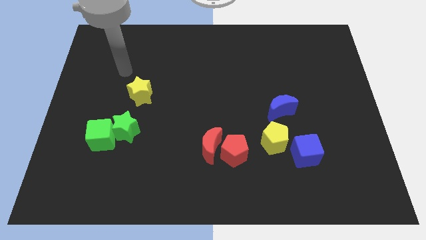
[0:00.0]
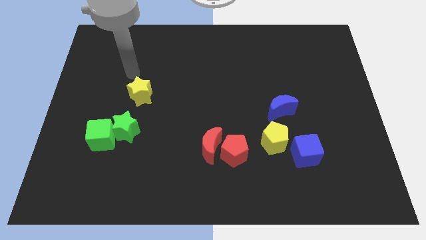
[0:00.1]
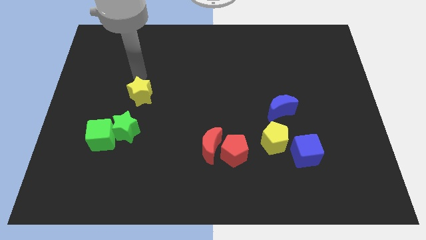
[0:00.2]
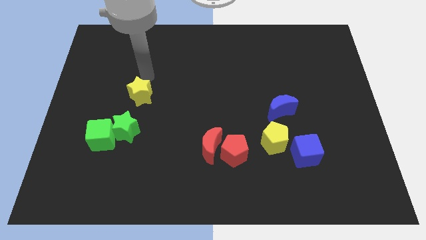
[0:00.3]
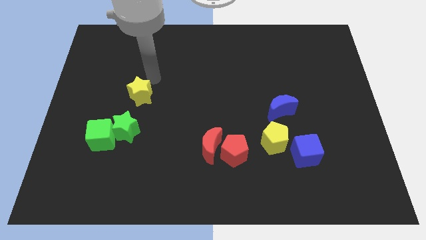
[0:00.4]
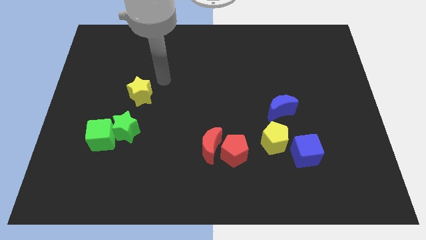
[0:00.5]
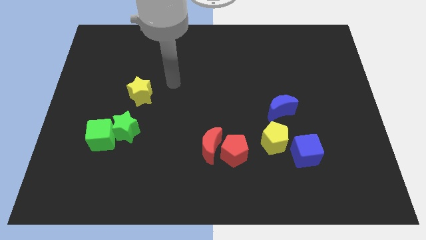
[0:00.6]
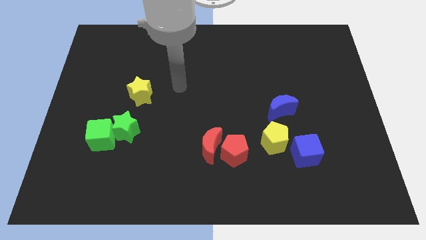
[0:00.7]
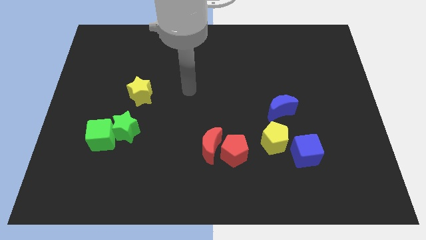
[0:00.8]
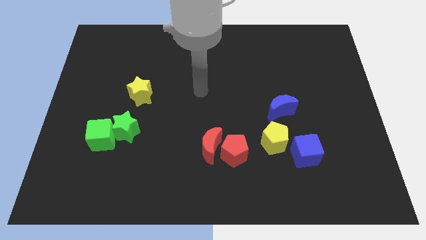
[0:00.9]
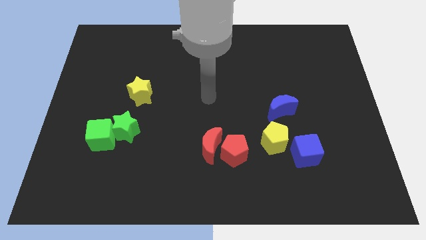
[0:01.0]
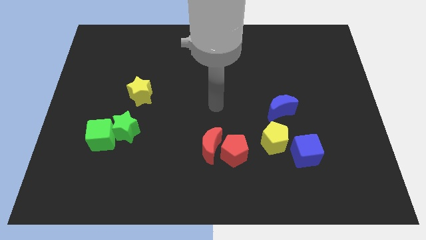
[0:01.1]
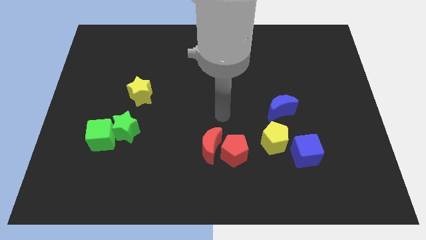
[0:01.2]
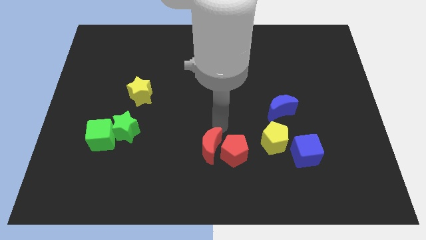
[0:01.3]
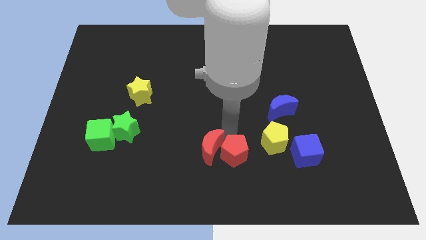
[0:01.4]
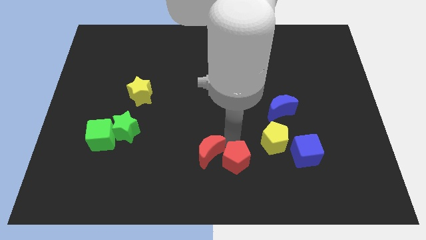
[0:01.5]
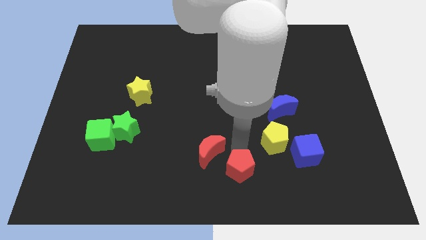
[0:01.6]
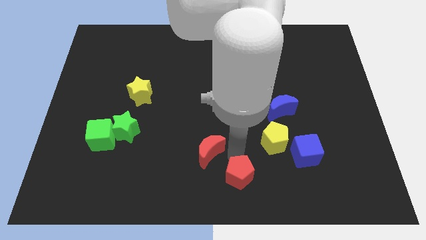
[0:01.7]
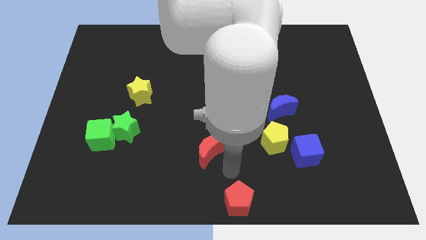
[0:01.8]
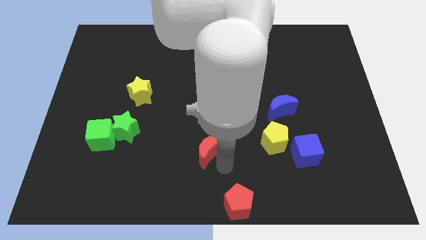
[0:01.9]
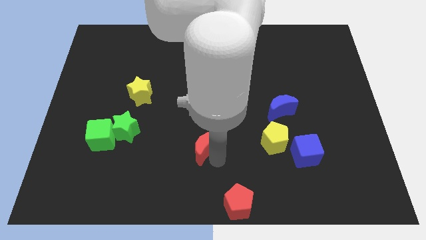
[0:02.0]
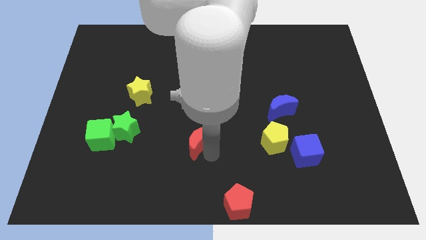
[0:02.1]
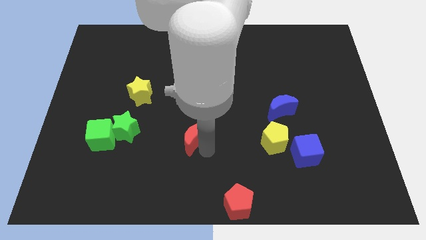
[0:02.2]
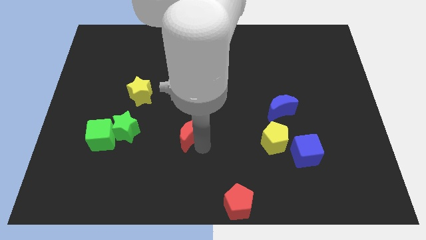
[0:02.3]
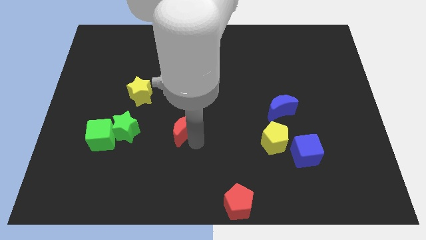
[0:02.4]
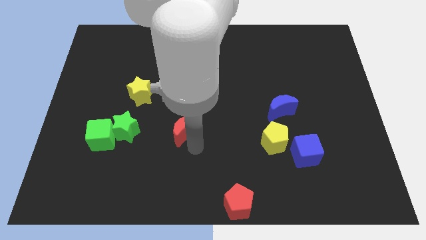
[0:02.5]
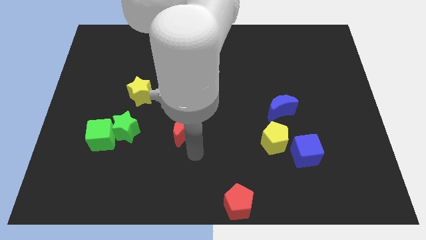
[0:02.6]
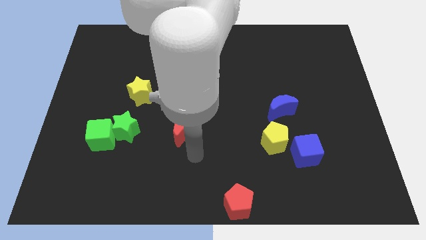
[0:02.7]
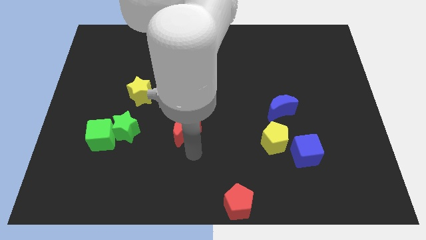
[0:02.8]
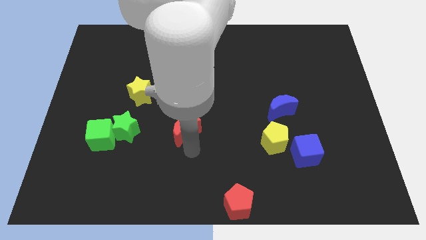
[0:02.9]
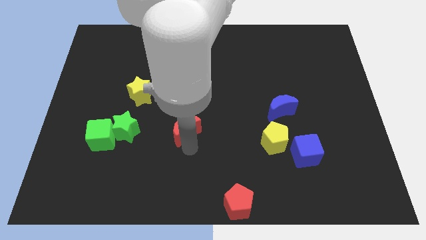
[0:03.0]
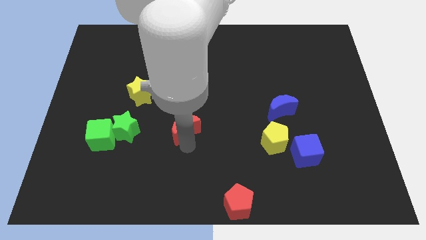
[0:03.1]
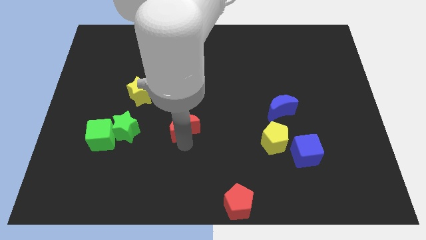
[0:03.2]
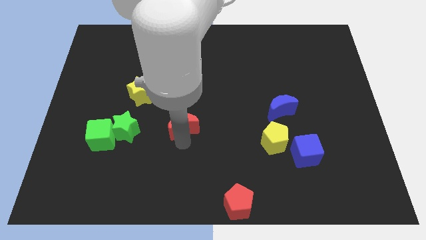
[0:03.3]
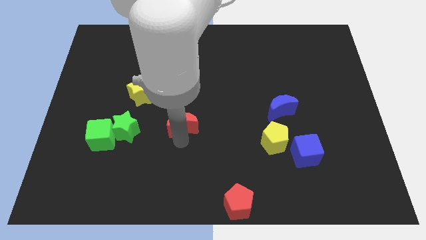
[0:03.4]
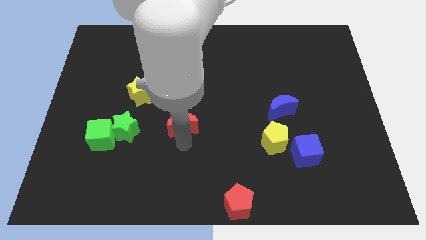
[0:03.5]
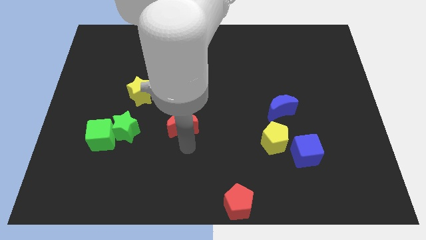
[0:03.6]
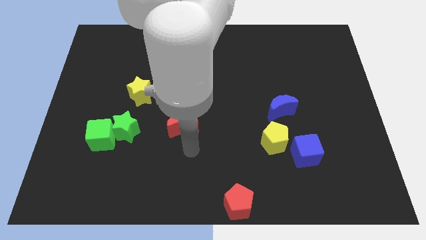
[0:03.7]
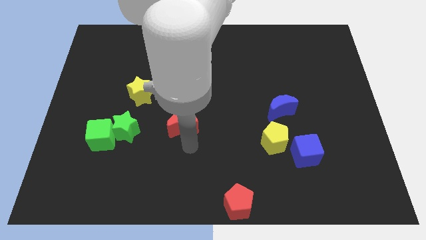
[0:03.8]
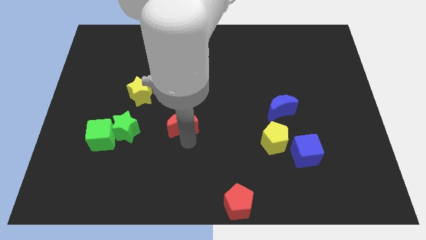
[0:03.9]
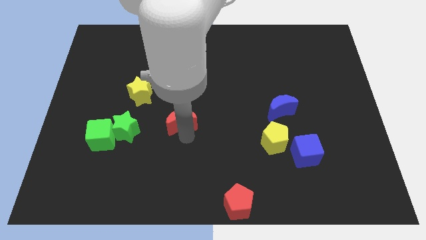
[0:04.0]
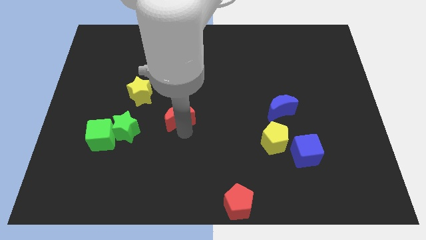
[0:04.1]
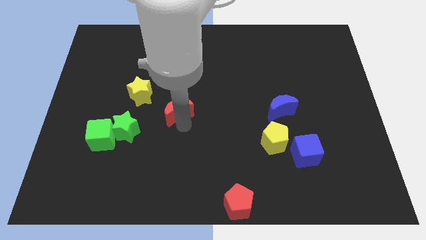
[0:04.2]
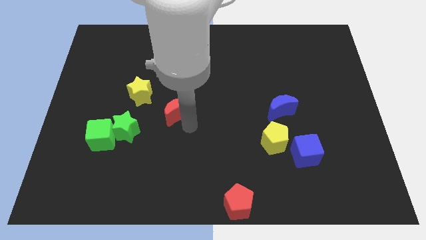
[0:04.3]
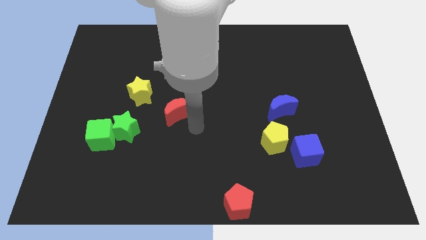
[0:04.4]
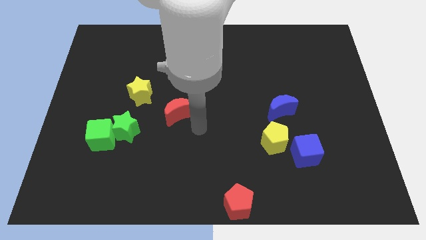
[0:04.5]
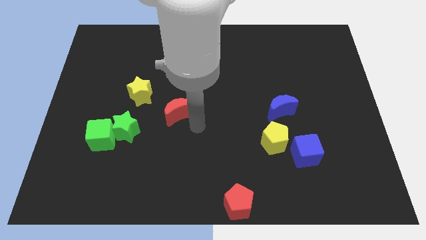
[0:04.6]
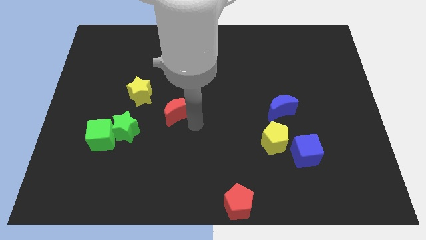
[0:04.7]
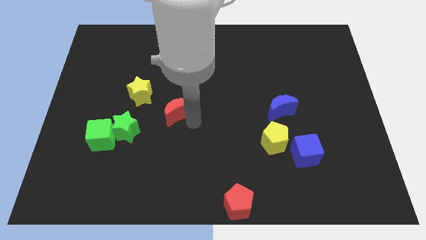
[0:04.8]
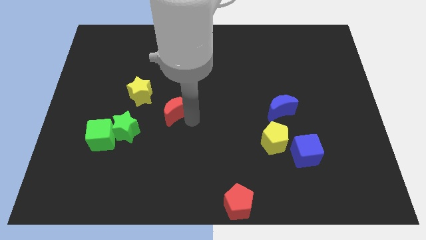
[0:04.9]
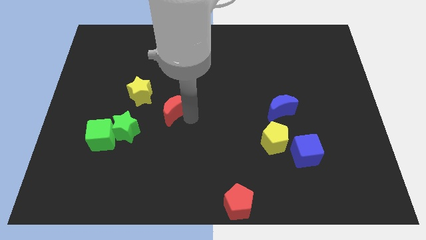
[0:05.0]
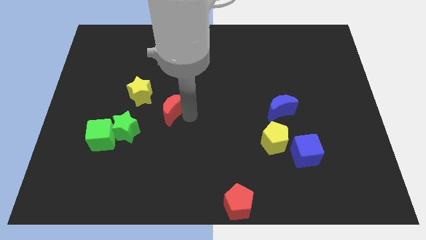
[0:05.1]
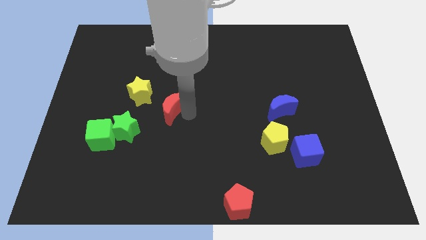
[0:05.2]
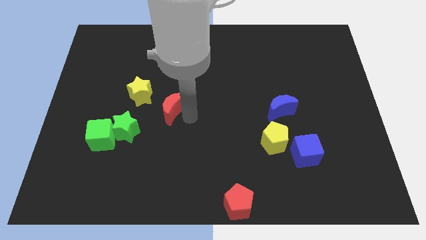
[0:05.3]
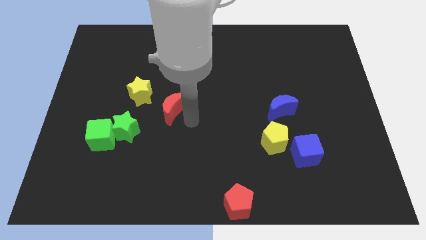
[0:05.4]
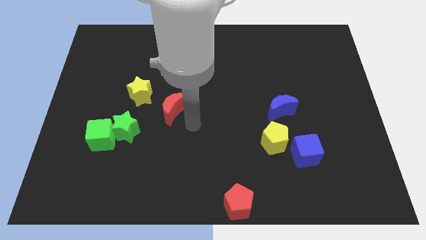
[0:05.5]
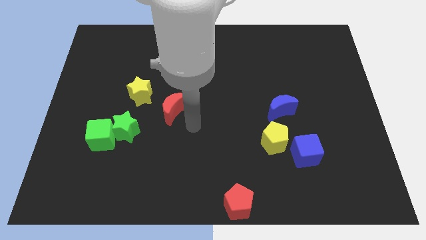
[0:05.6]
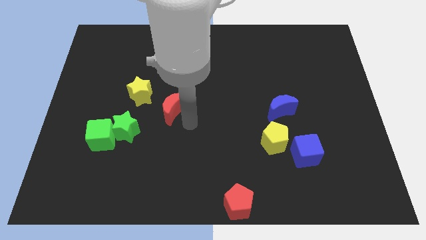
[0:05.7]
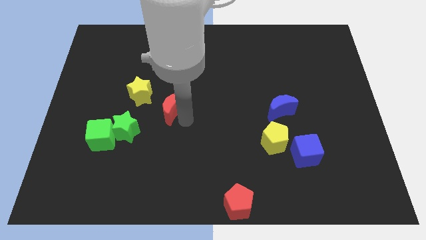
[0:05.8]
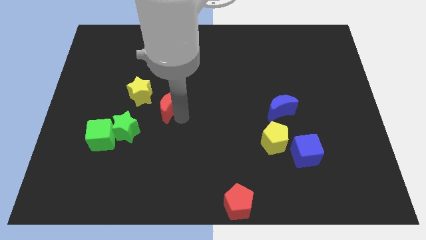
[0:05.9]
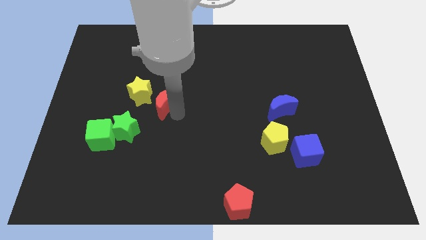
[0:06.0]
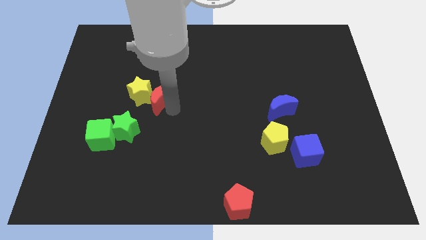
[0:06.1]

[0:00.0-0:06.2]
move the red moon next to the yellow star
